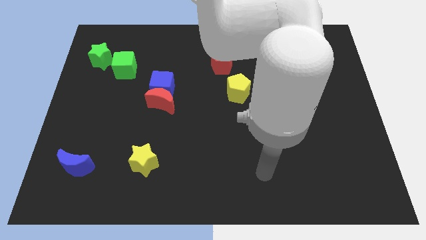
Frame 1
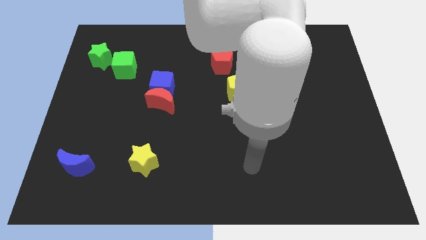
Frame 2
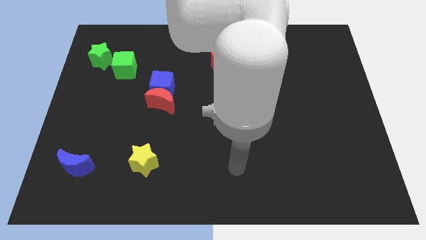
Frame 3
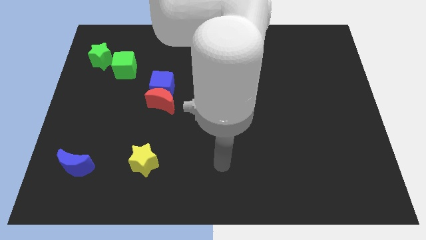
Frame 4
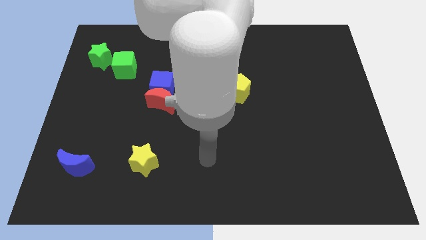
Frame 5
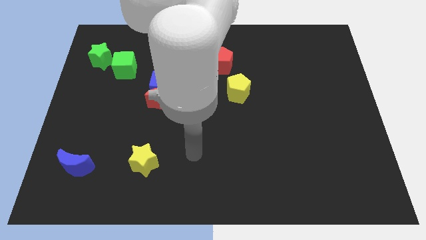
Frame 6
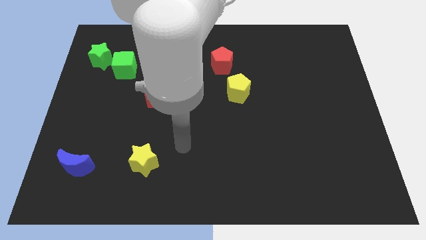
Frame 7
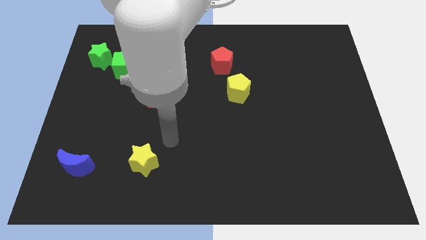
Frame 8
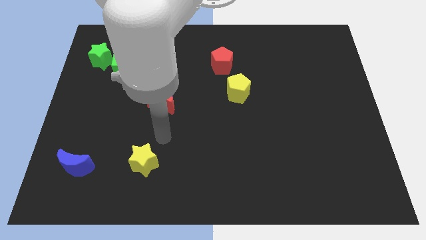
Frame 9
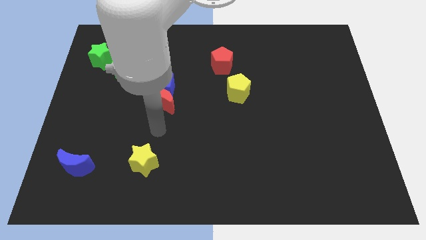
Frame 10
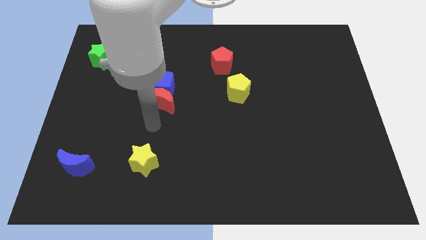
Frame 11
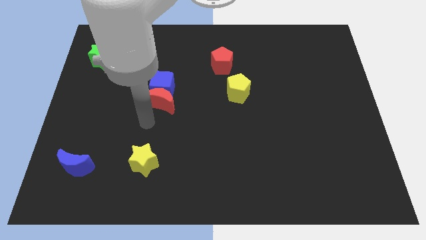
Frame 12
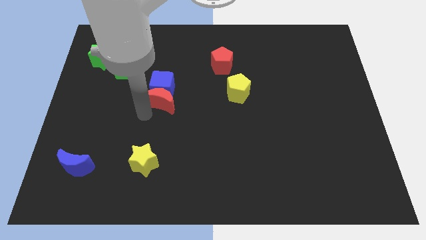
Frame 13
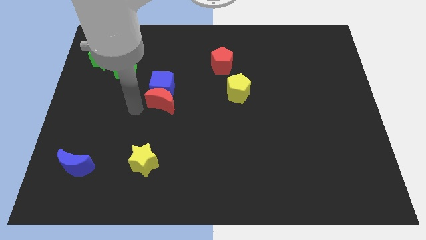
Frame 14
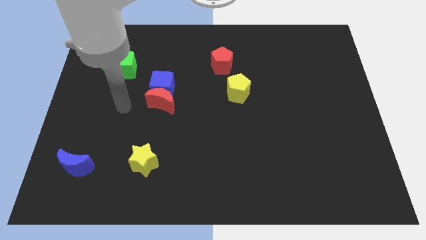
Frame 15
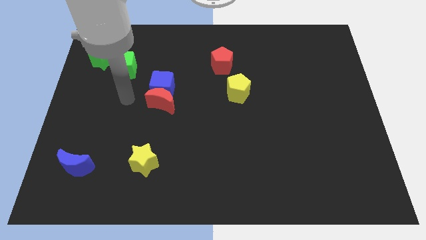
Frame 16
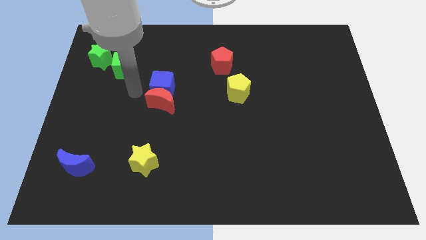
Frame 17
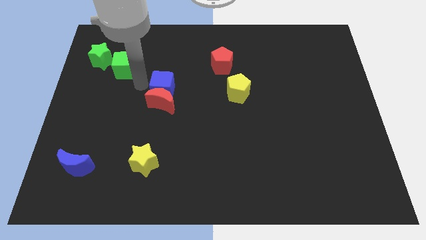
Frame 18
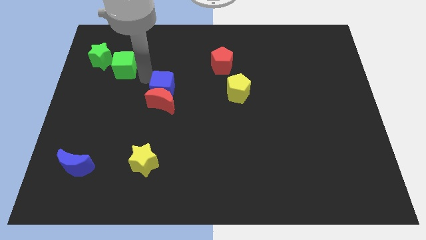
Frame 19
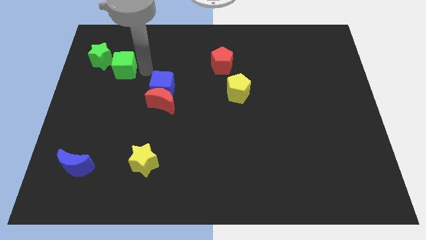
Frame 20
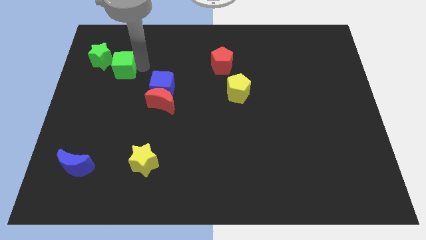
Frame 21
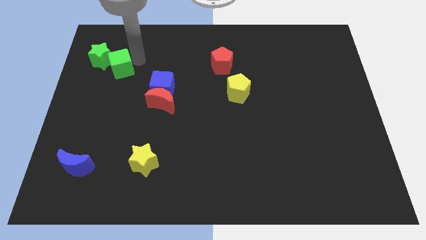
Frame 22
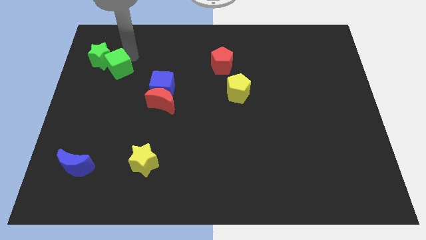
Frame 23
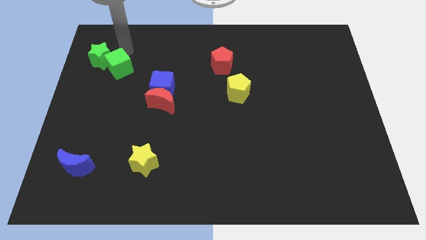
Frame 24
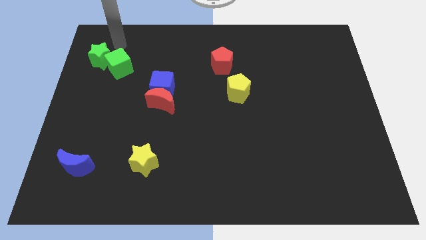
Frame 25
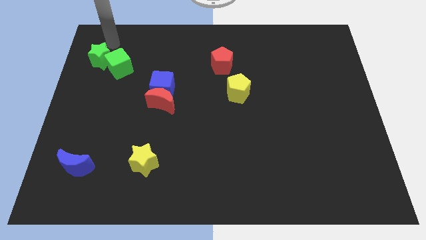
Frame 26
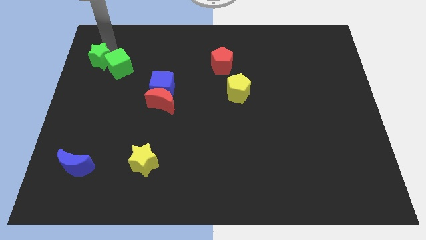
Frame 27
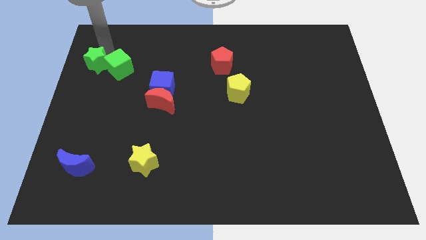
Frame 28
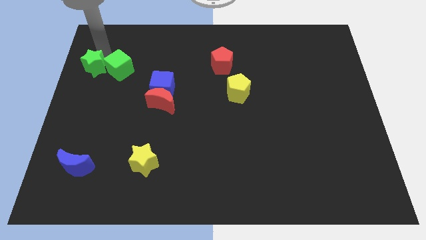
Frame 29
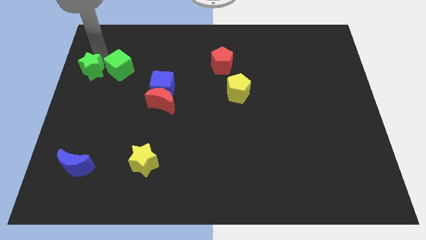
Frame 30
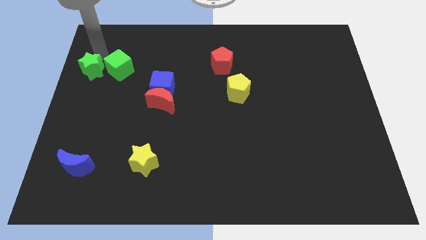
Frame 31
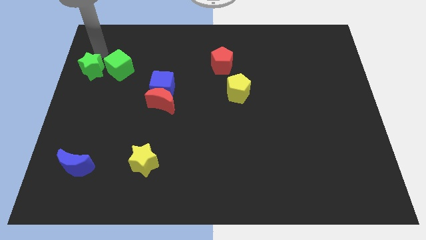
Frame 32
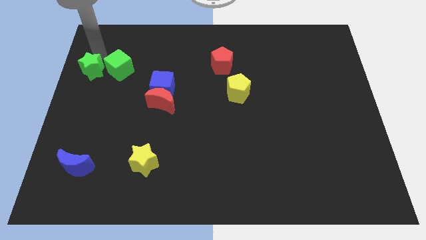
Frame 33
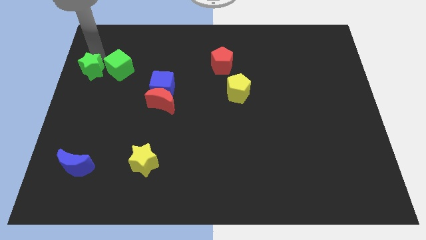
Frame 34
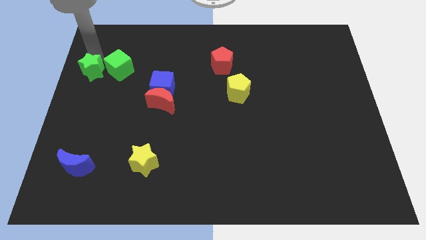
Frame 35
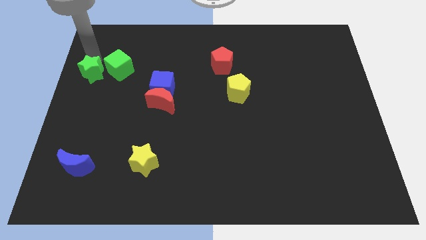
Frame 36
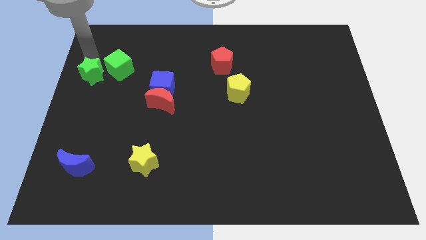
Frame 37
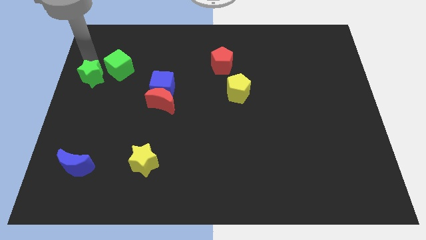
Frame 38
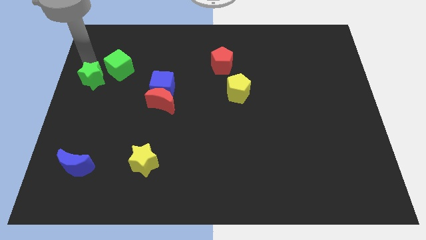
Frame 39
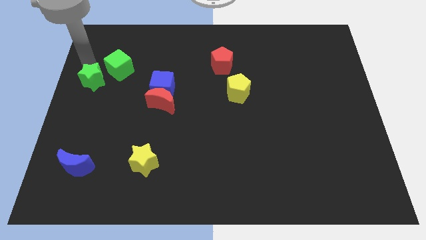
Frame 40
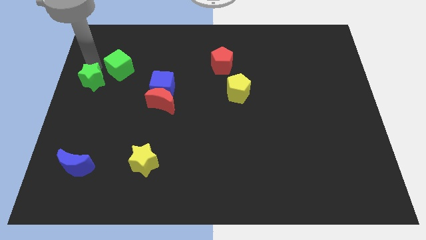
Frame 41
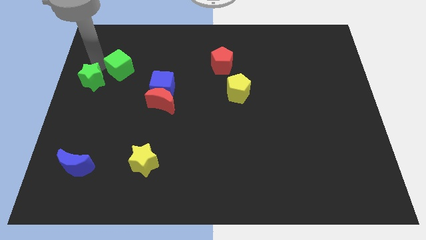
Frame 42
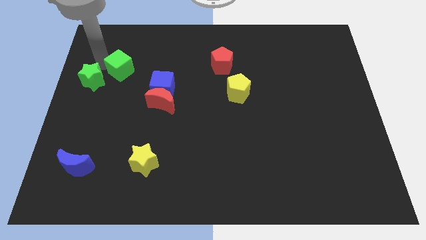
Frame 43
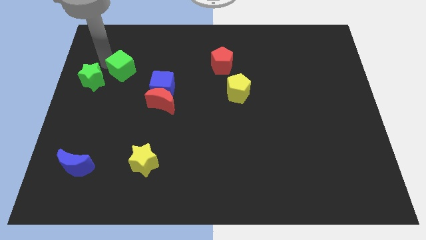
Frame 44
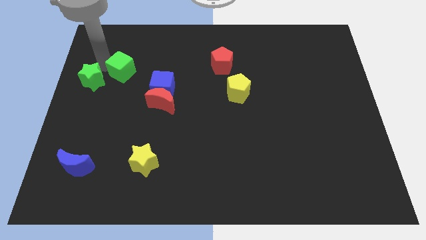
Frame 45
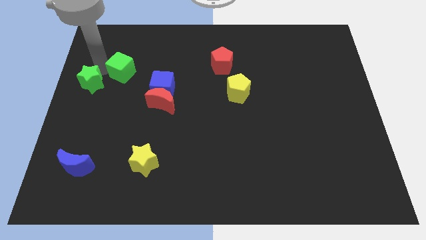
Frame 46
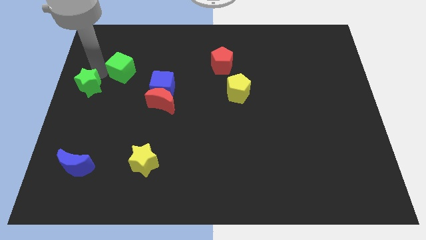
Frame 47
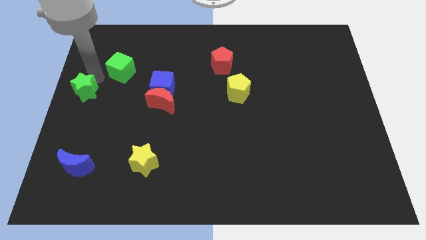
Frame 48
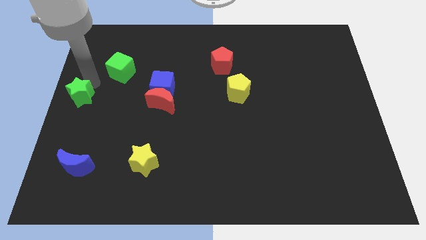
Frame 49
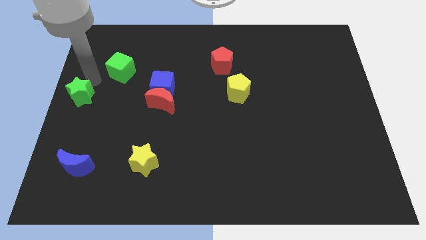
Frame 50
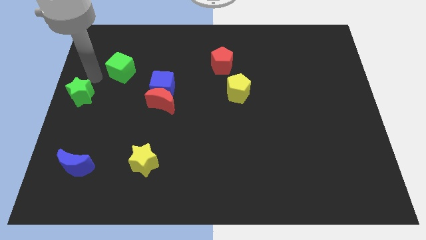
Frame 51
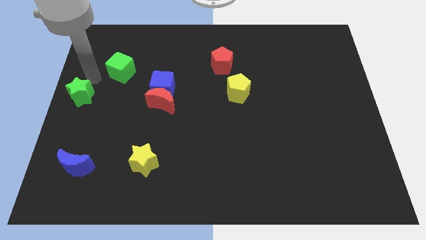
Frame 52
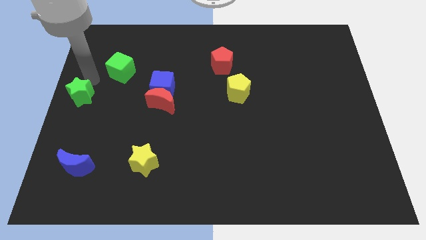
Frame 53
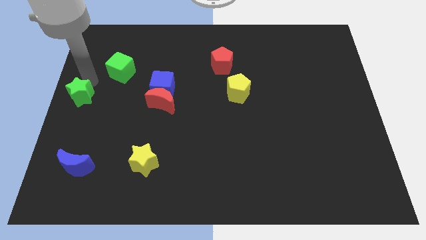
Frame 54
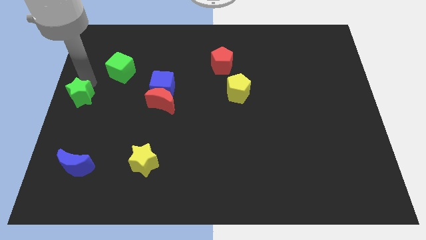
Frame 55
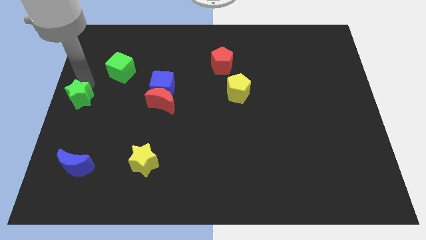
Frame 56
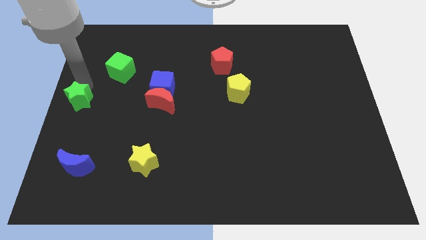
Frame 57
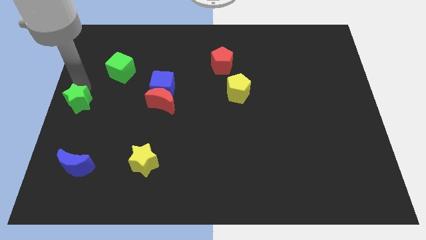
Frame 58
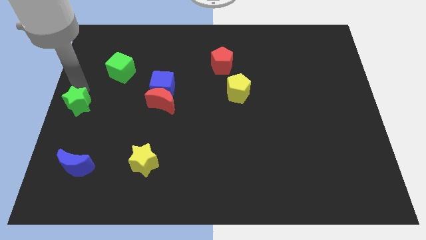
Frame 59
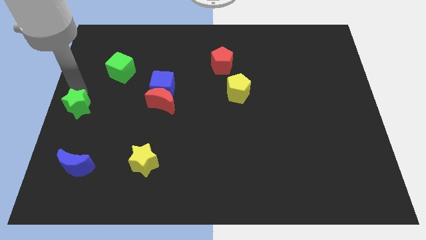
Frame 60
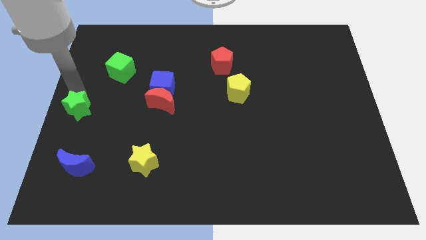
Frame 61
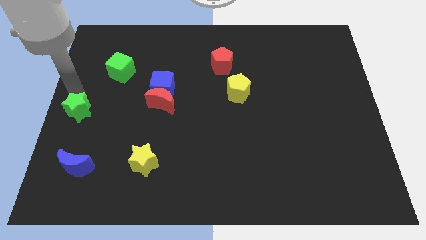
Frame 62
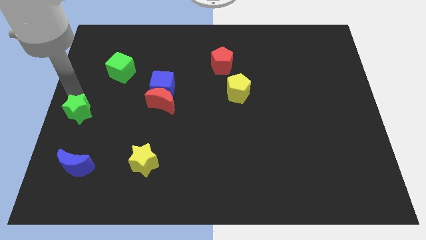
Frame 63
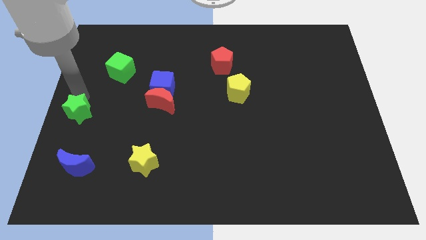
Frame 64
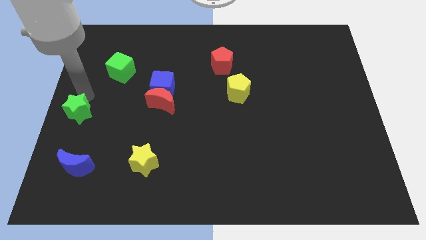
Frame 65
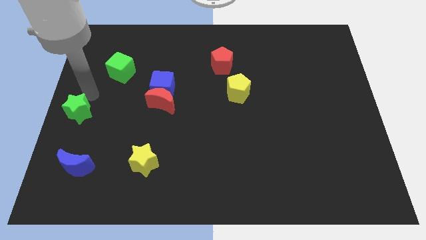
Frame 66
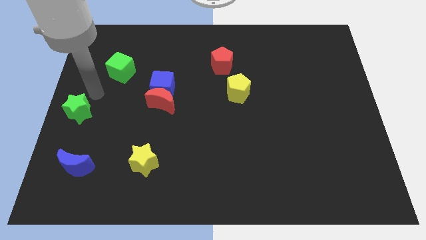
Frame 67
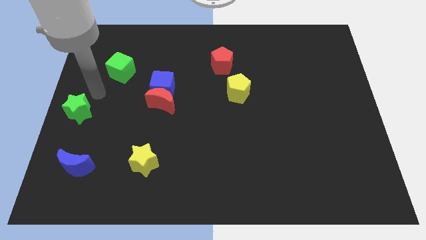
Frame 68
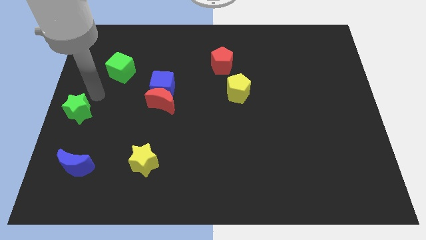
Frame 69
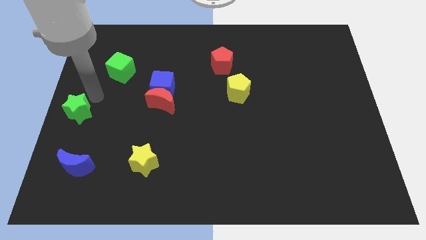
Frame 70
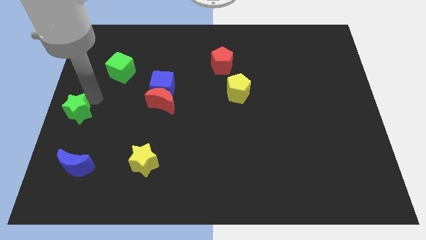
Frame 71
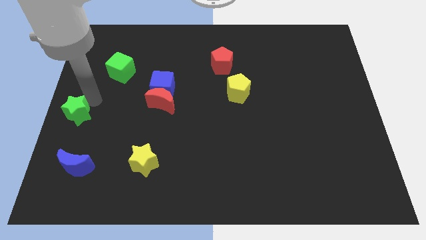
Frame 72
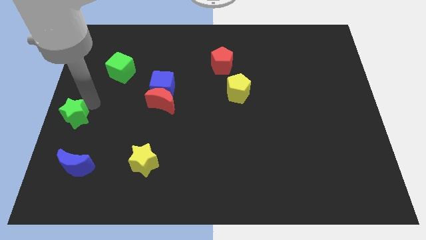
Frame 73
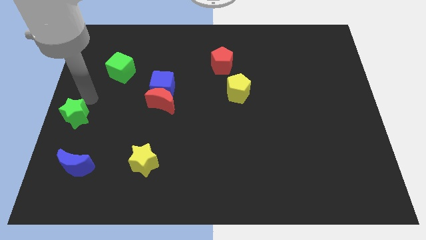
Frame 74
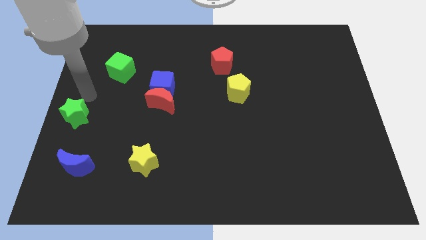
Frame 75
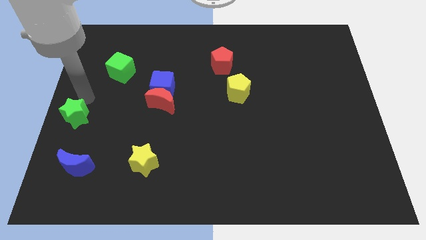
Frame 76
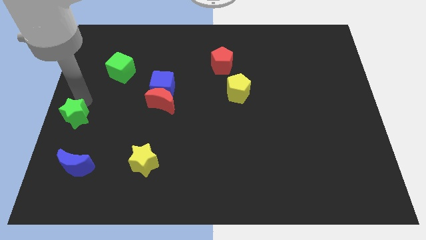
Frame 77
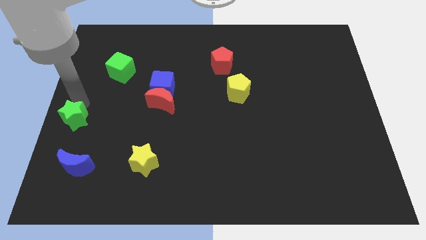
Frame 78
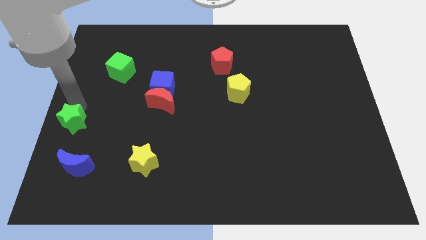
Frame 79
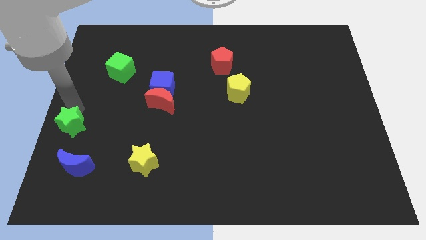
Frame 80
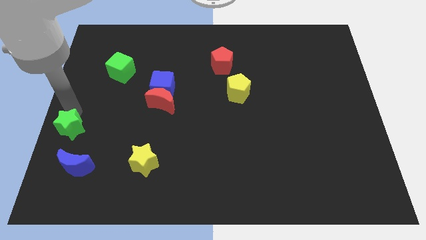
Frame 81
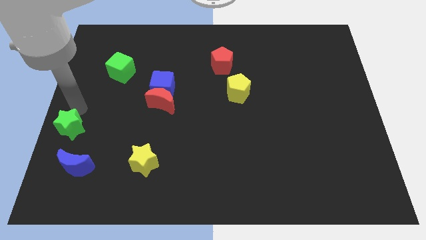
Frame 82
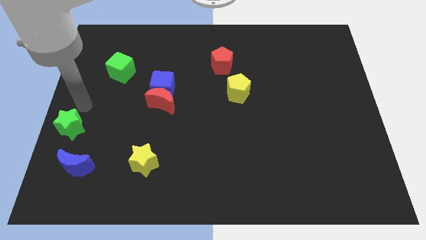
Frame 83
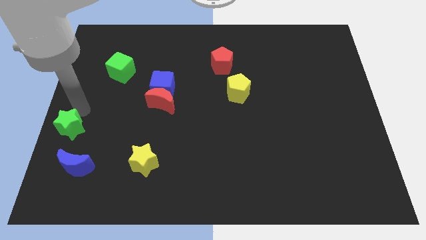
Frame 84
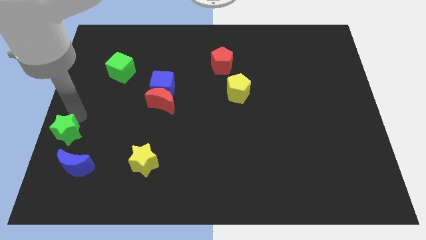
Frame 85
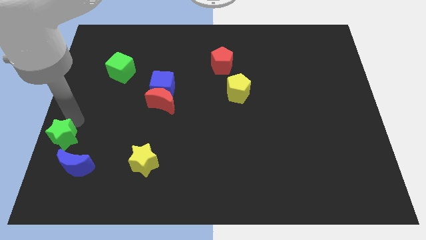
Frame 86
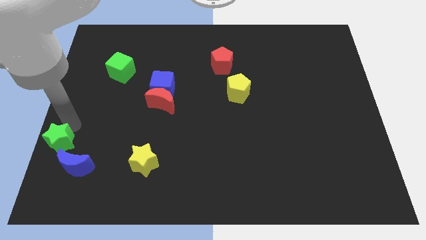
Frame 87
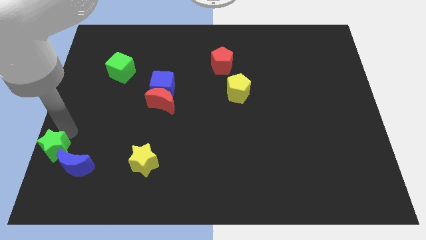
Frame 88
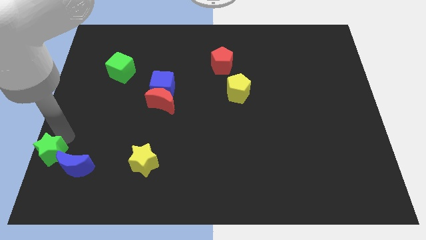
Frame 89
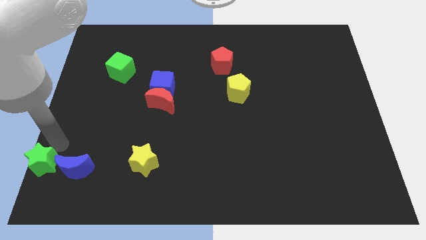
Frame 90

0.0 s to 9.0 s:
put the green star to the bottom left
